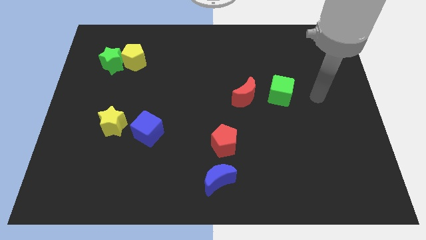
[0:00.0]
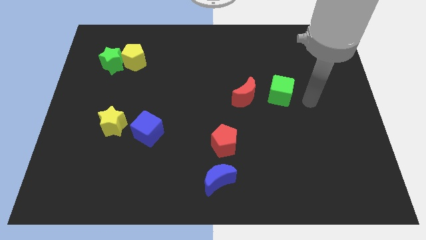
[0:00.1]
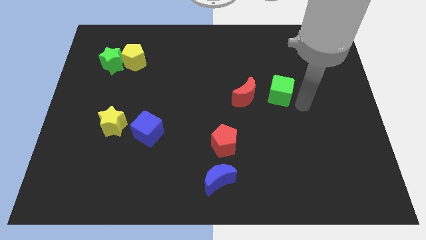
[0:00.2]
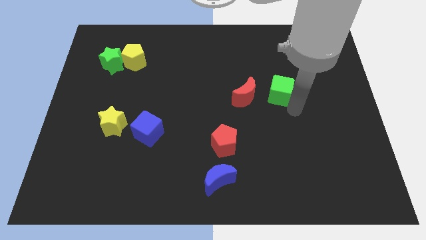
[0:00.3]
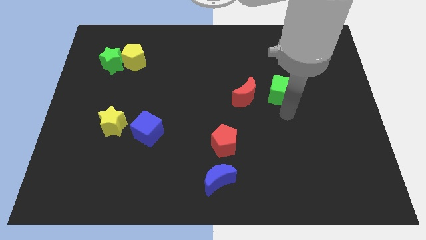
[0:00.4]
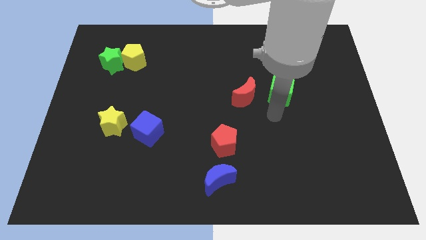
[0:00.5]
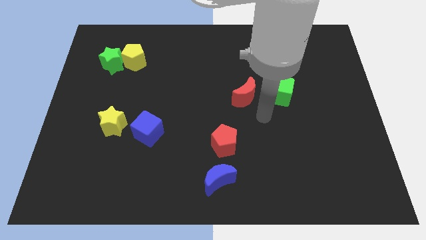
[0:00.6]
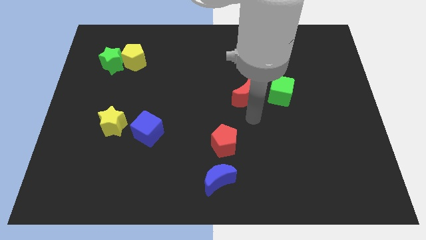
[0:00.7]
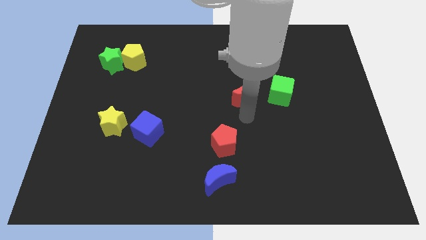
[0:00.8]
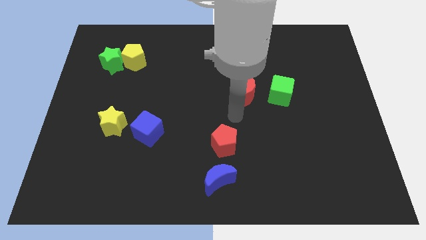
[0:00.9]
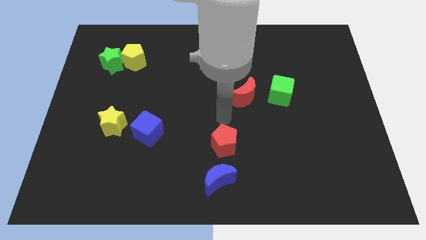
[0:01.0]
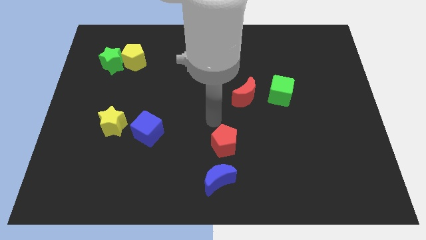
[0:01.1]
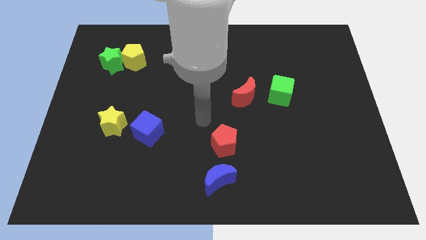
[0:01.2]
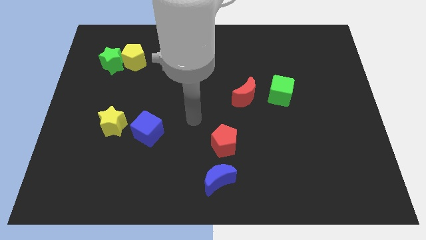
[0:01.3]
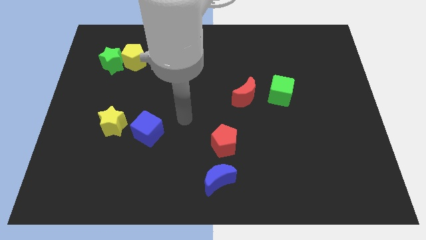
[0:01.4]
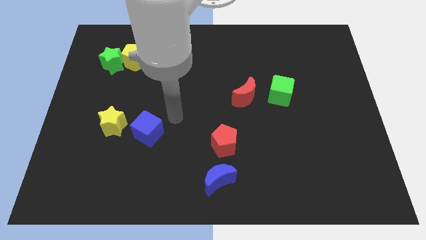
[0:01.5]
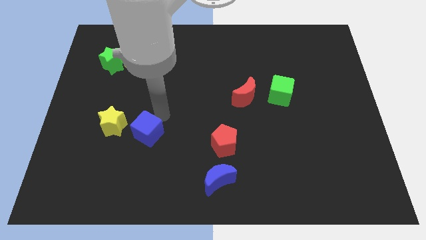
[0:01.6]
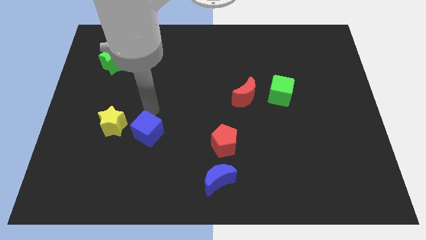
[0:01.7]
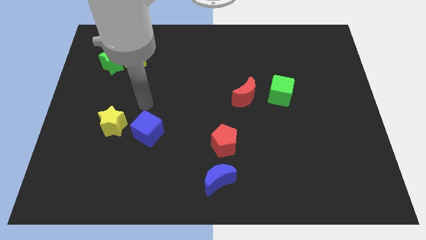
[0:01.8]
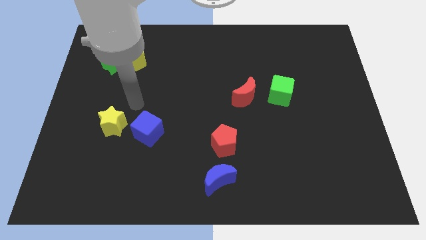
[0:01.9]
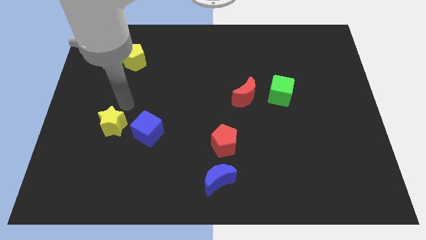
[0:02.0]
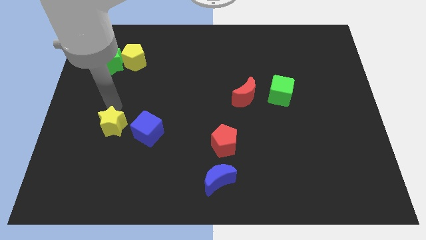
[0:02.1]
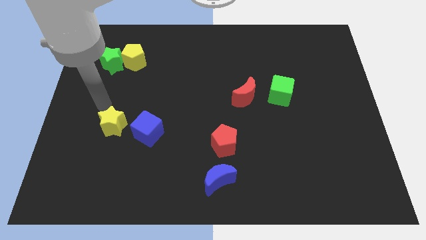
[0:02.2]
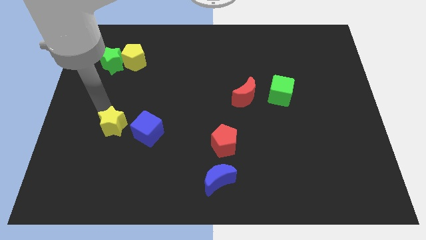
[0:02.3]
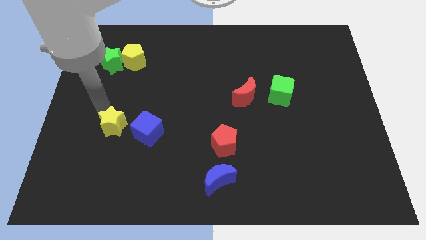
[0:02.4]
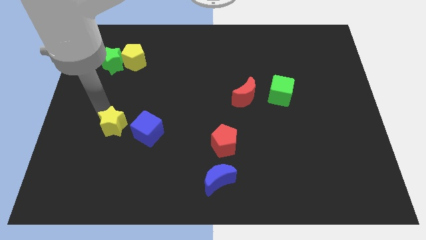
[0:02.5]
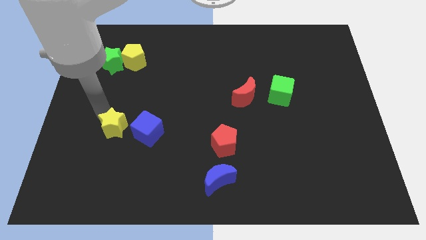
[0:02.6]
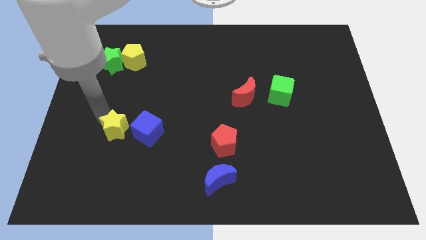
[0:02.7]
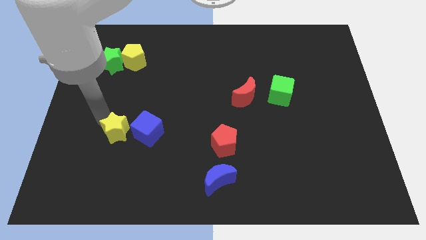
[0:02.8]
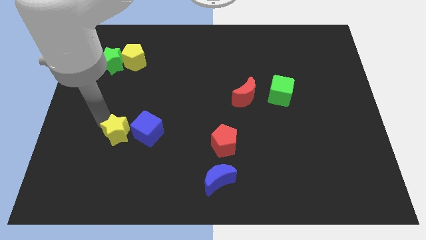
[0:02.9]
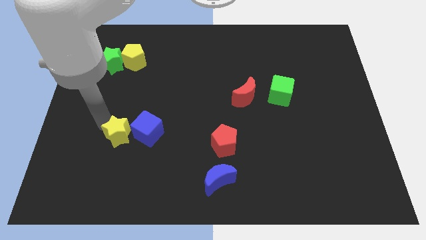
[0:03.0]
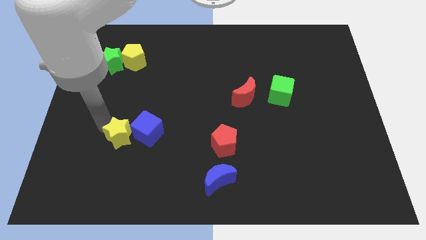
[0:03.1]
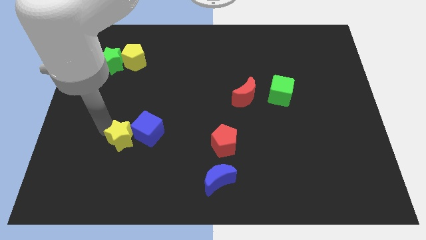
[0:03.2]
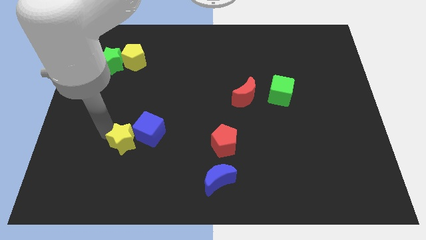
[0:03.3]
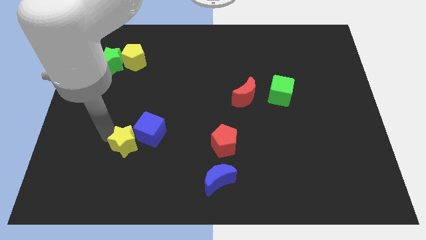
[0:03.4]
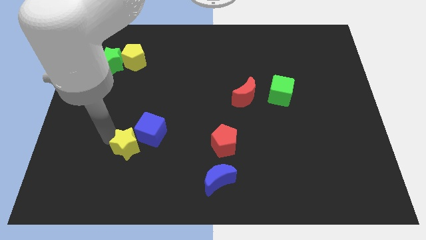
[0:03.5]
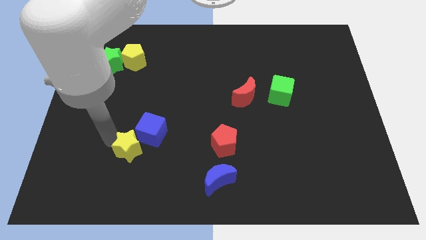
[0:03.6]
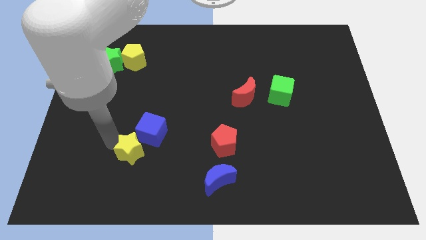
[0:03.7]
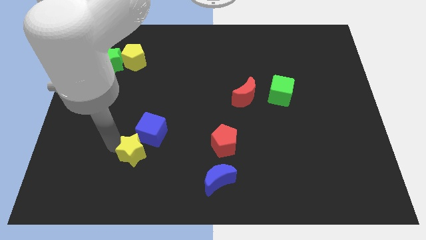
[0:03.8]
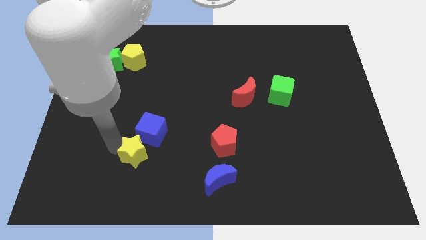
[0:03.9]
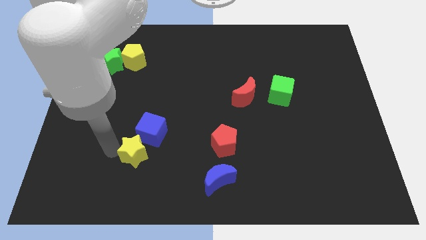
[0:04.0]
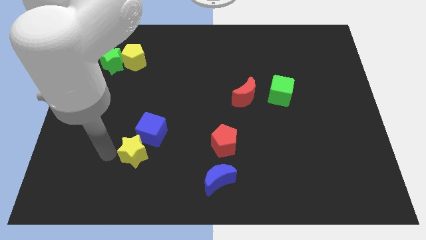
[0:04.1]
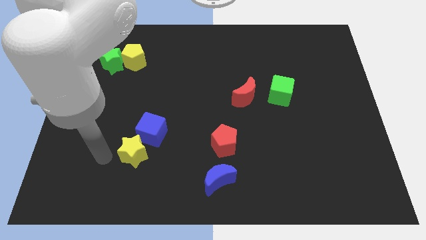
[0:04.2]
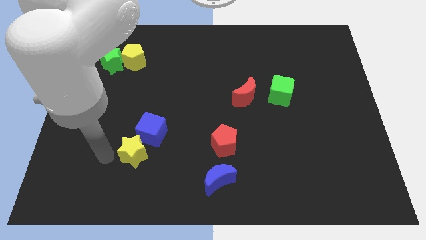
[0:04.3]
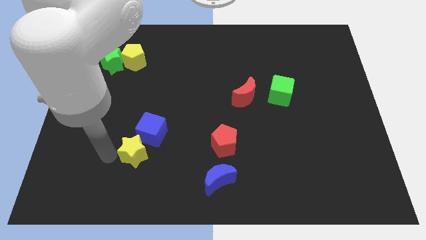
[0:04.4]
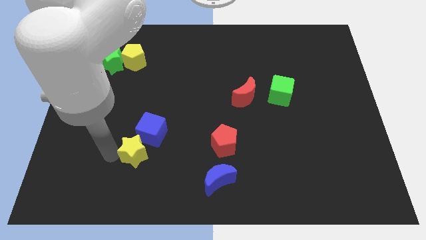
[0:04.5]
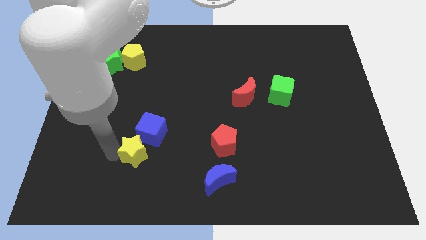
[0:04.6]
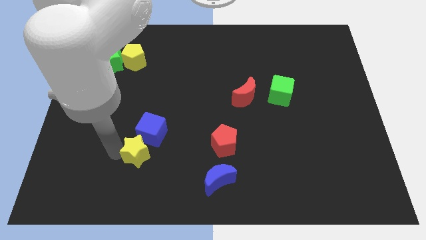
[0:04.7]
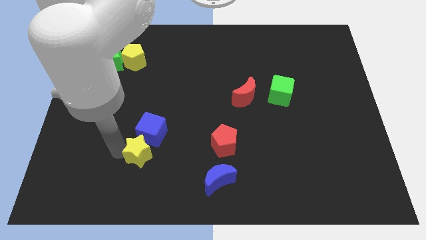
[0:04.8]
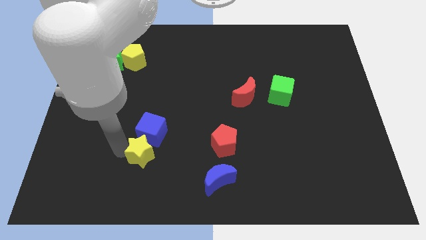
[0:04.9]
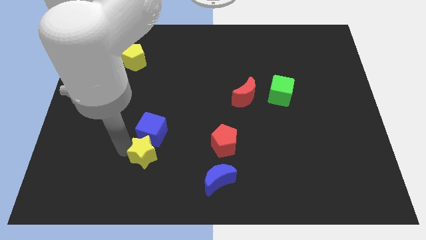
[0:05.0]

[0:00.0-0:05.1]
move the yellow star diagonally down and to the right of the blue cube

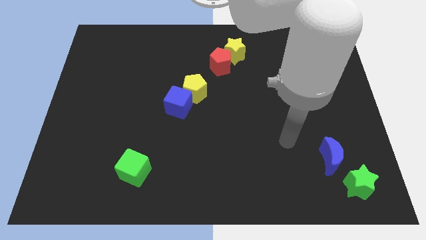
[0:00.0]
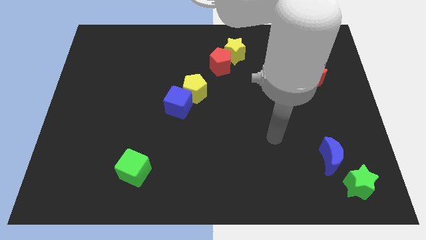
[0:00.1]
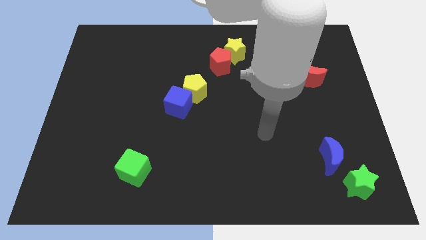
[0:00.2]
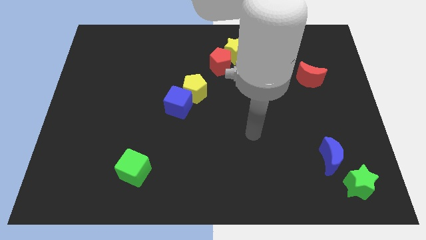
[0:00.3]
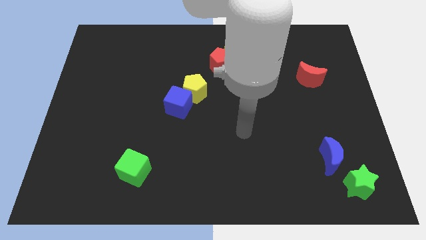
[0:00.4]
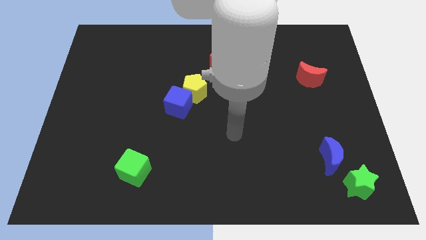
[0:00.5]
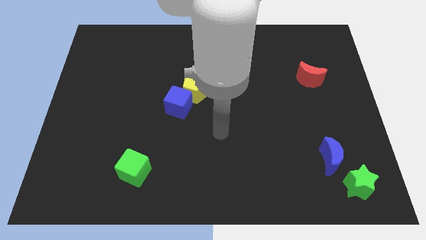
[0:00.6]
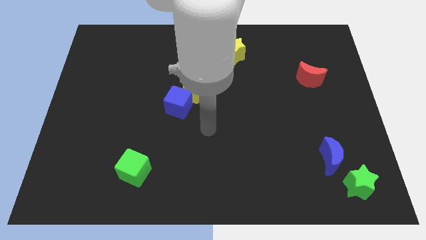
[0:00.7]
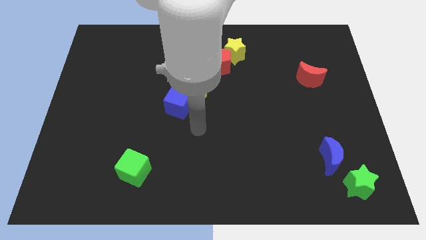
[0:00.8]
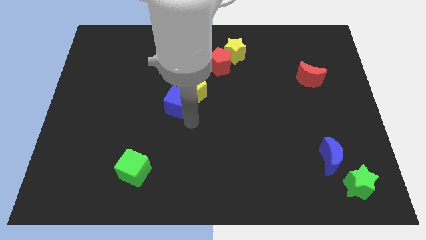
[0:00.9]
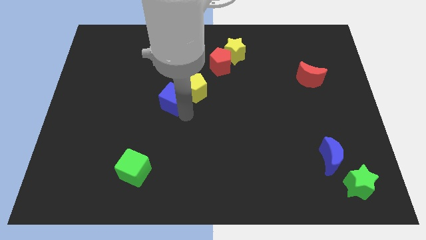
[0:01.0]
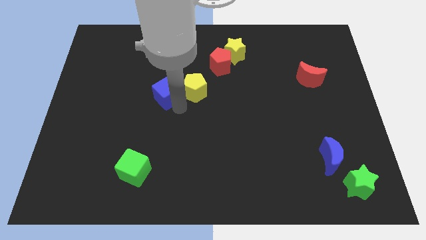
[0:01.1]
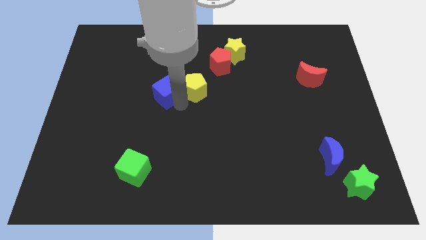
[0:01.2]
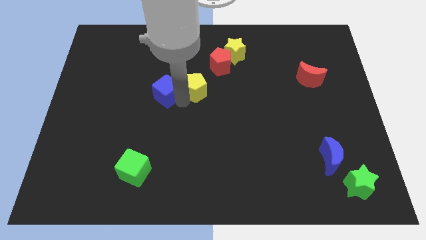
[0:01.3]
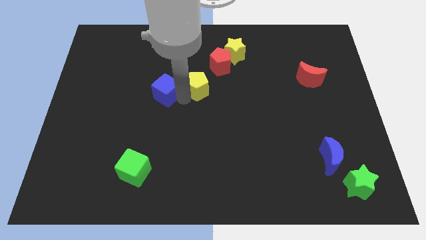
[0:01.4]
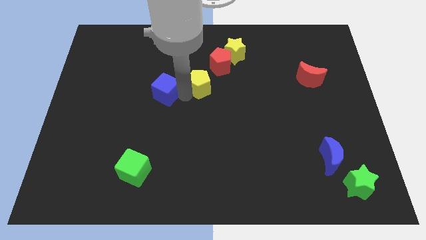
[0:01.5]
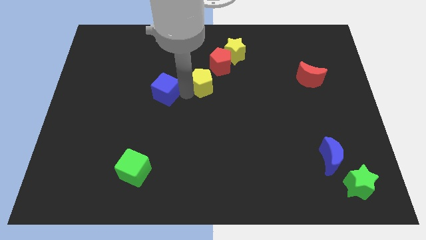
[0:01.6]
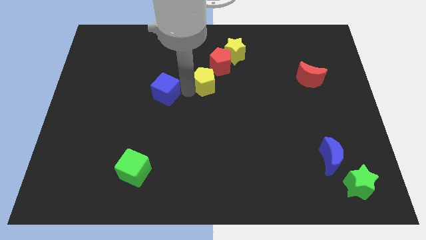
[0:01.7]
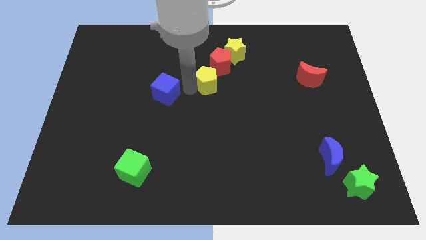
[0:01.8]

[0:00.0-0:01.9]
move the yellow pentagon to the bottom left side of the yellow star

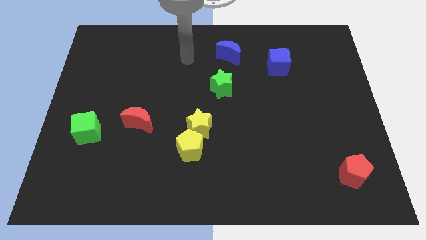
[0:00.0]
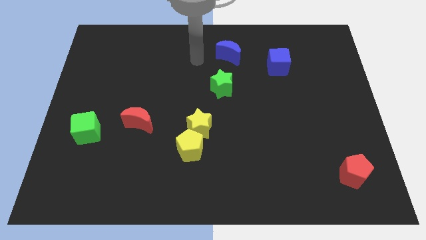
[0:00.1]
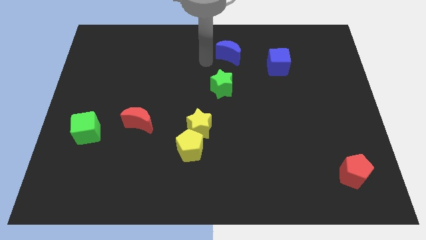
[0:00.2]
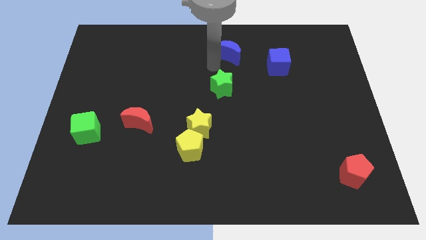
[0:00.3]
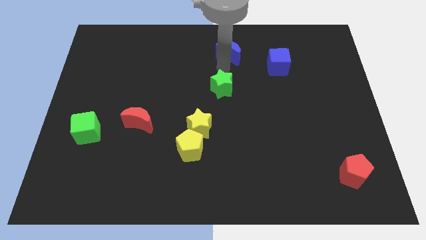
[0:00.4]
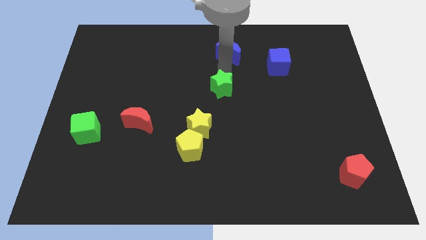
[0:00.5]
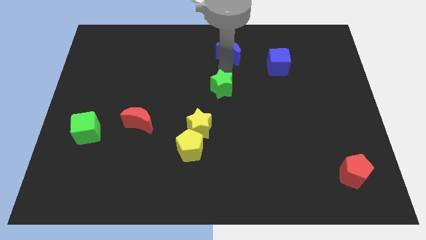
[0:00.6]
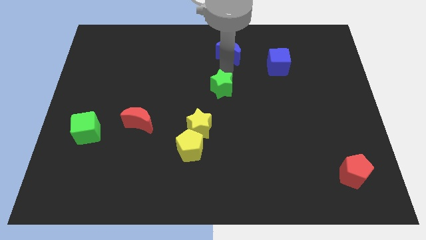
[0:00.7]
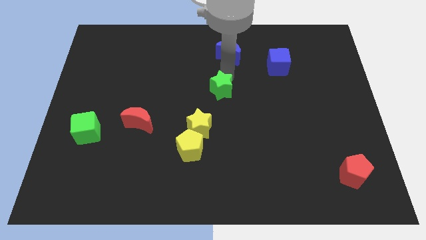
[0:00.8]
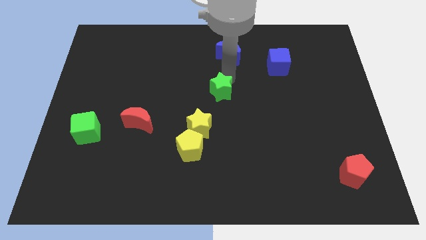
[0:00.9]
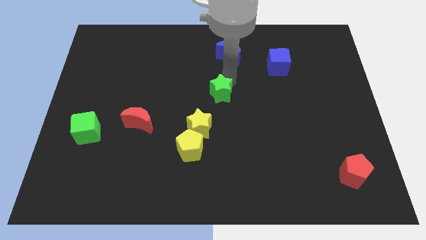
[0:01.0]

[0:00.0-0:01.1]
move the green star to the top right of the yellow star
